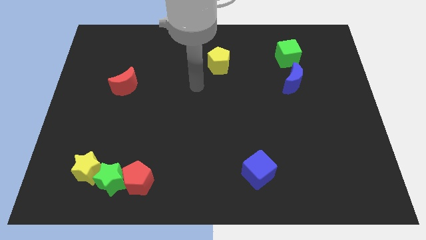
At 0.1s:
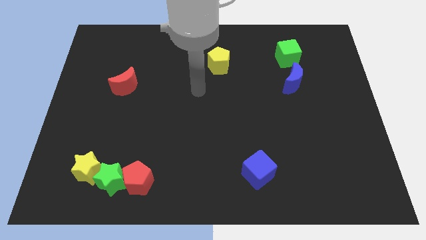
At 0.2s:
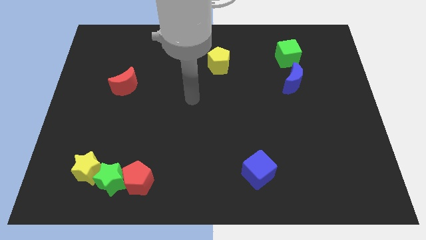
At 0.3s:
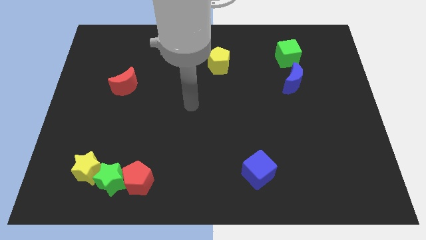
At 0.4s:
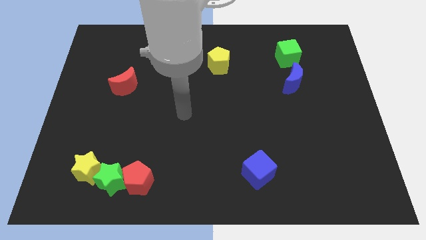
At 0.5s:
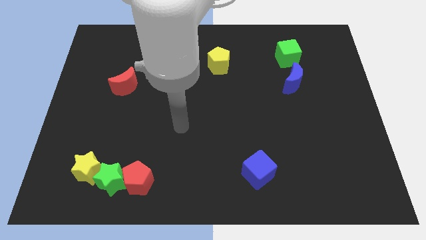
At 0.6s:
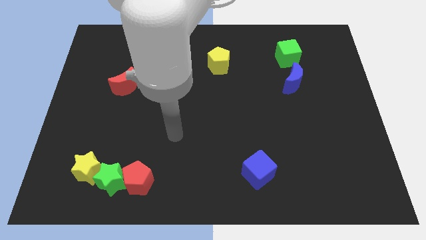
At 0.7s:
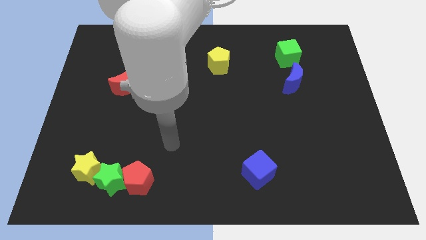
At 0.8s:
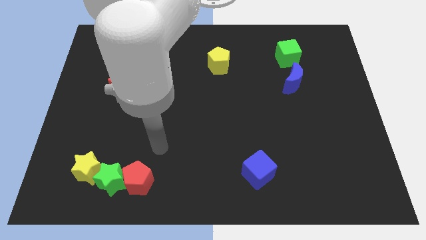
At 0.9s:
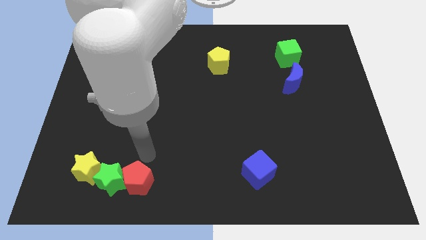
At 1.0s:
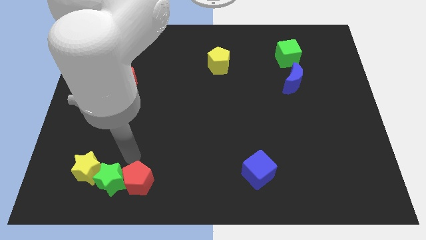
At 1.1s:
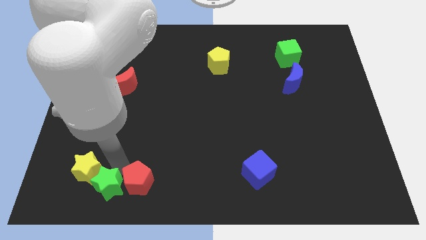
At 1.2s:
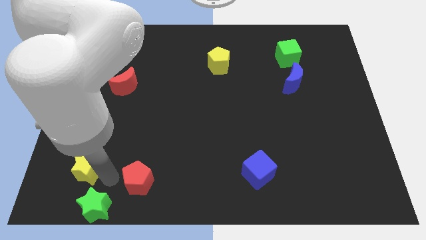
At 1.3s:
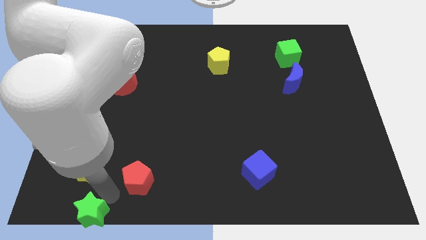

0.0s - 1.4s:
move the red pentagon away from the green star

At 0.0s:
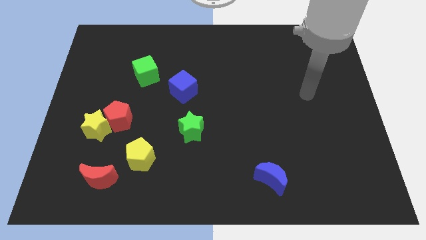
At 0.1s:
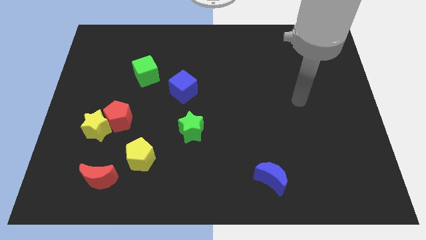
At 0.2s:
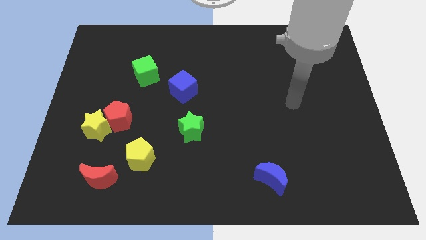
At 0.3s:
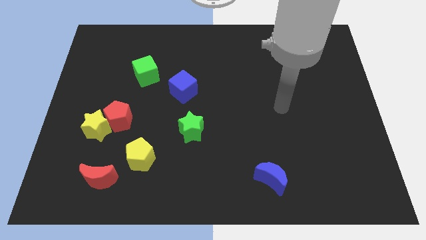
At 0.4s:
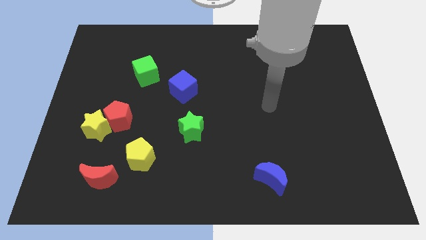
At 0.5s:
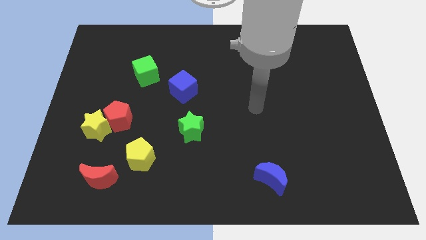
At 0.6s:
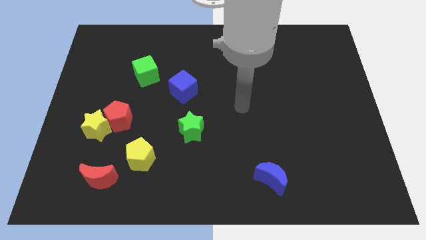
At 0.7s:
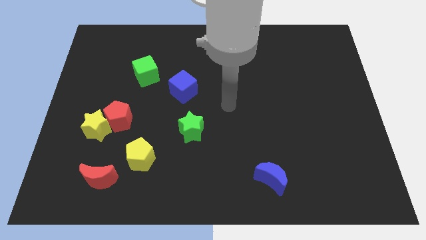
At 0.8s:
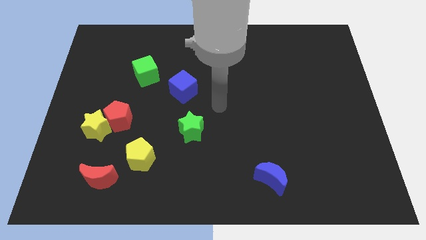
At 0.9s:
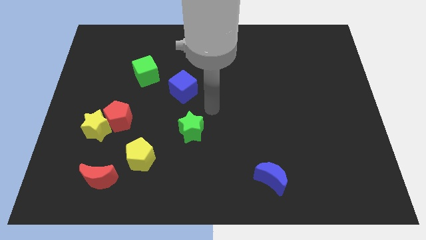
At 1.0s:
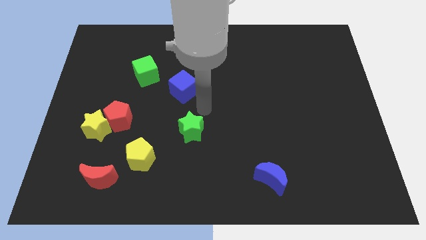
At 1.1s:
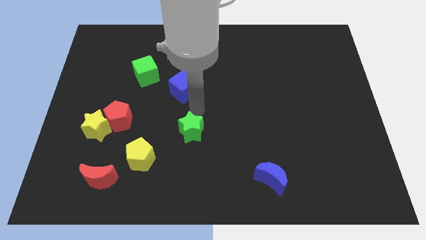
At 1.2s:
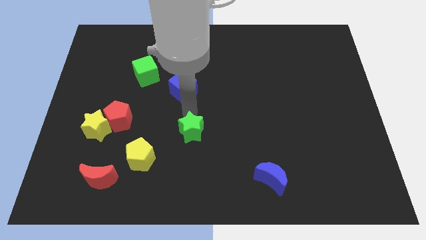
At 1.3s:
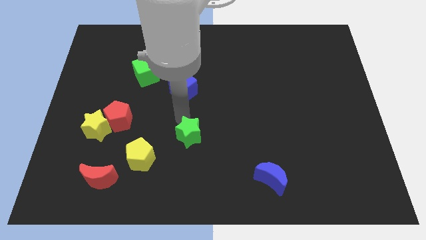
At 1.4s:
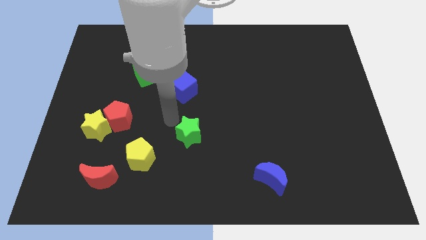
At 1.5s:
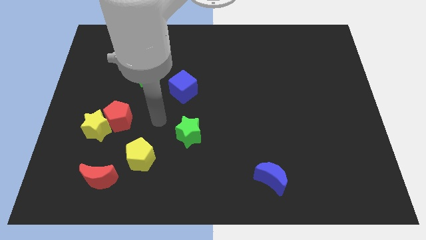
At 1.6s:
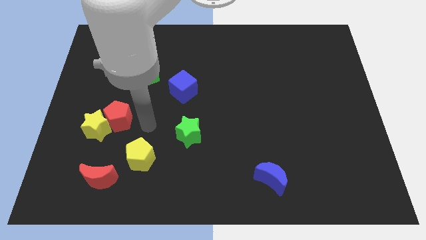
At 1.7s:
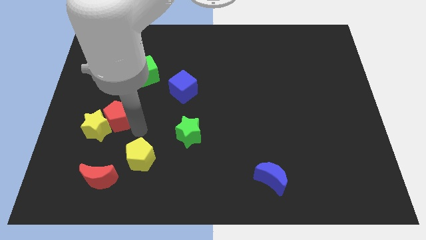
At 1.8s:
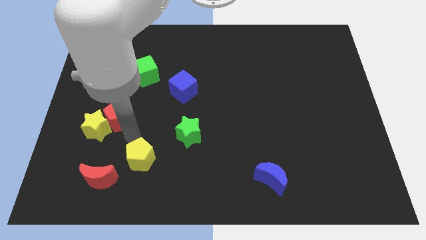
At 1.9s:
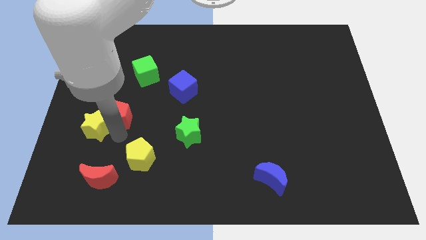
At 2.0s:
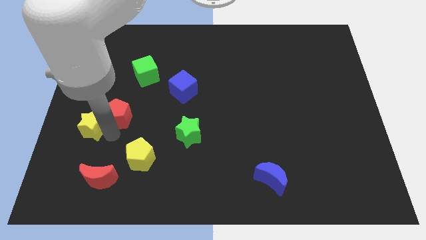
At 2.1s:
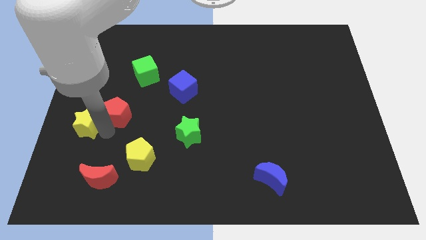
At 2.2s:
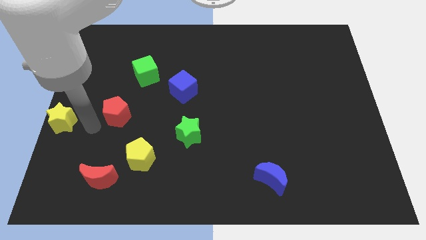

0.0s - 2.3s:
separate the red pentagon from the yellow star

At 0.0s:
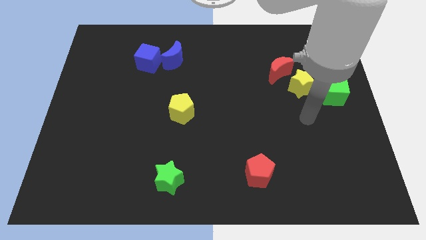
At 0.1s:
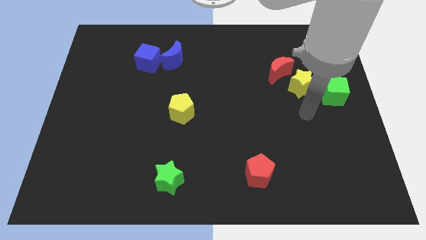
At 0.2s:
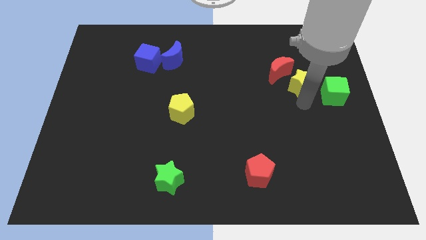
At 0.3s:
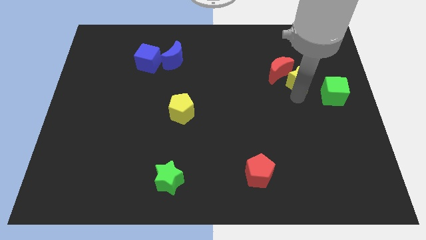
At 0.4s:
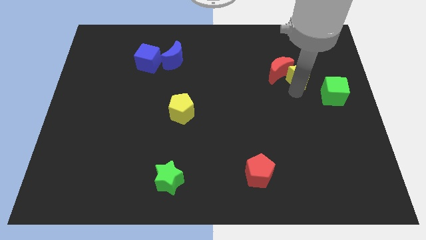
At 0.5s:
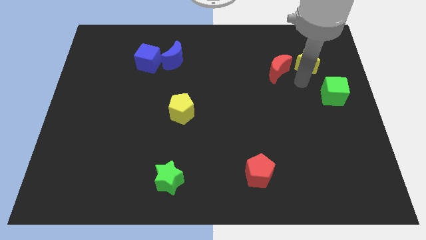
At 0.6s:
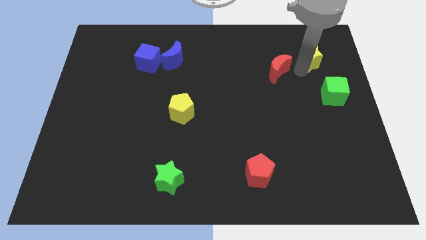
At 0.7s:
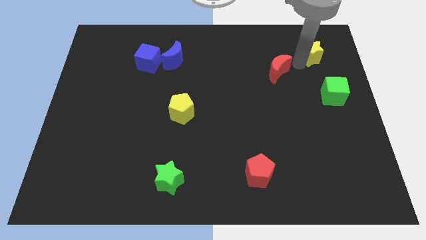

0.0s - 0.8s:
separate the red moon from the yellow star

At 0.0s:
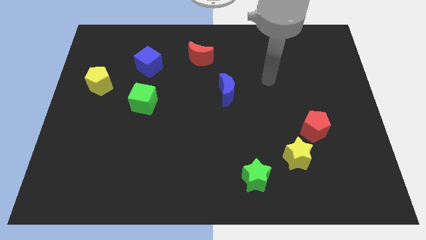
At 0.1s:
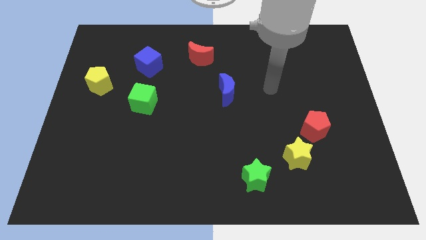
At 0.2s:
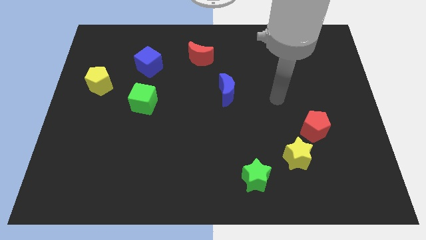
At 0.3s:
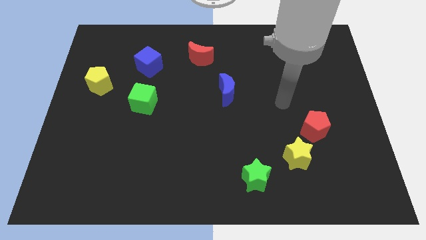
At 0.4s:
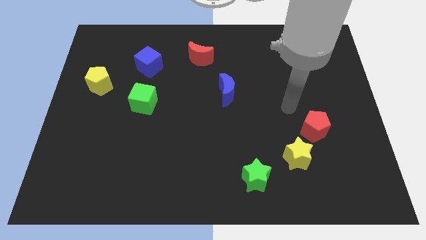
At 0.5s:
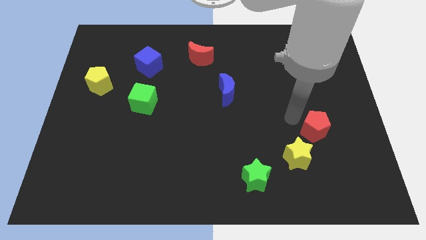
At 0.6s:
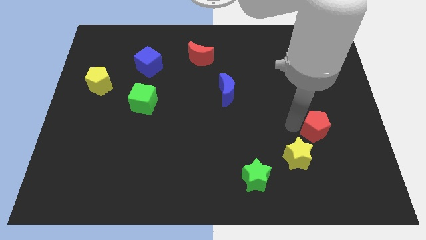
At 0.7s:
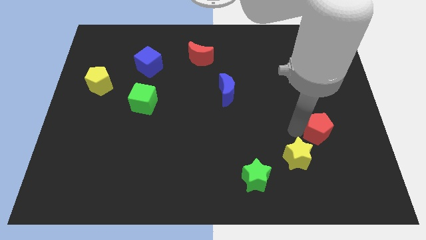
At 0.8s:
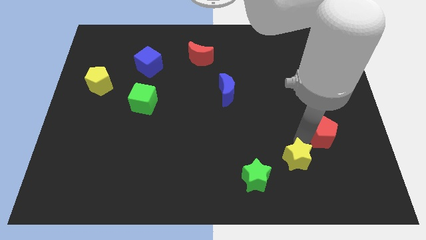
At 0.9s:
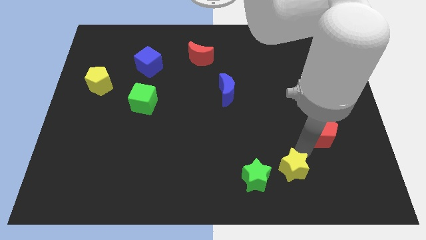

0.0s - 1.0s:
move the red pentagon away from the yellow star

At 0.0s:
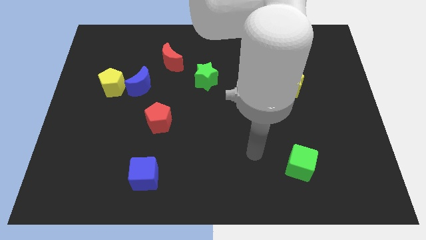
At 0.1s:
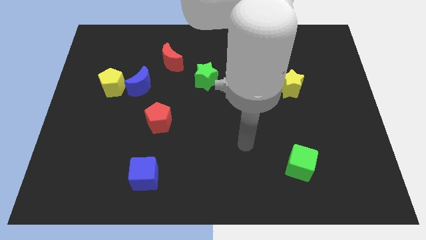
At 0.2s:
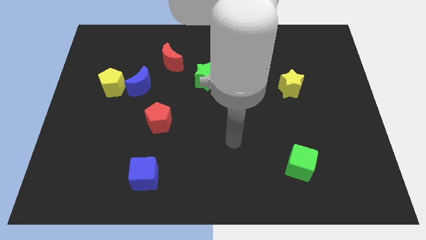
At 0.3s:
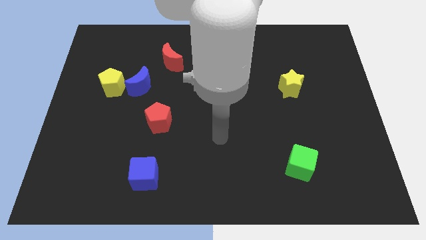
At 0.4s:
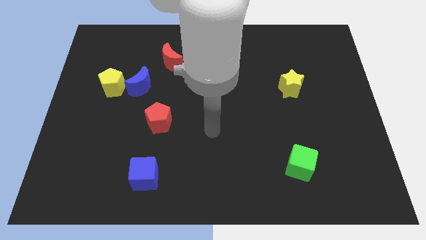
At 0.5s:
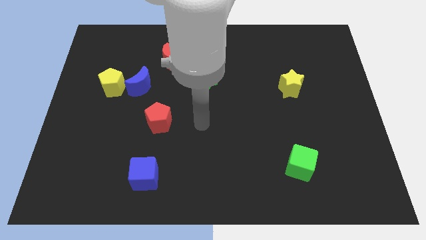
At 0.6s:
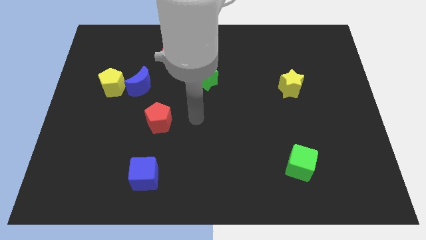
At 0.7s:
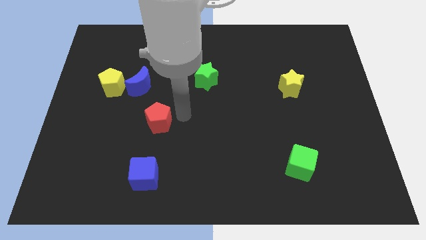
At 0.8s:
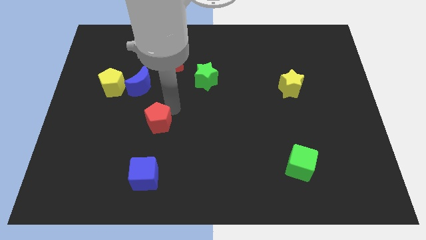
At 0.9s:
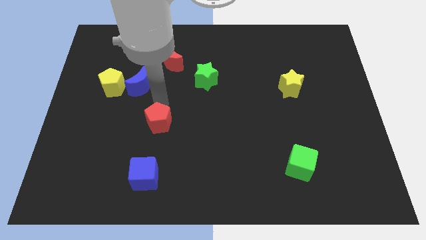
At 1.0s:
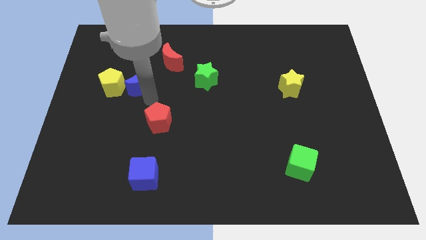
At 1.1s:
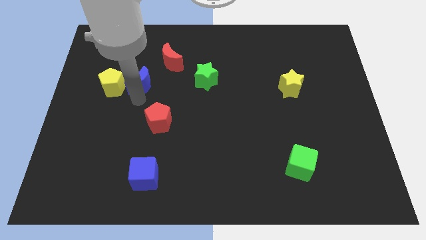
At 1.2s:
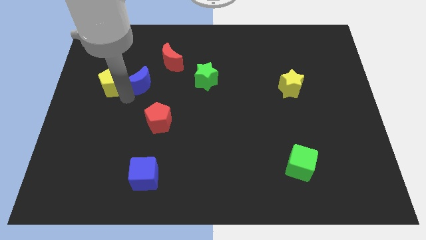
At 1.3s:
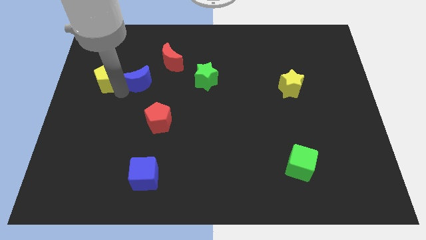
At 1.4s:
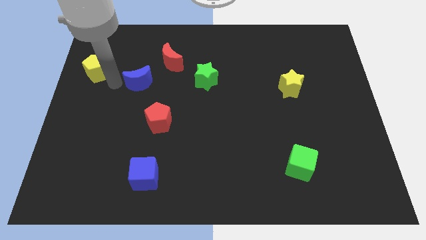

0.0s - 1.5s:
pull the blue moon apart from the yellow pentagon

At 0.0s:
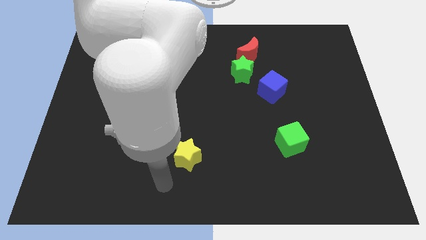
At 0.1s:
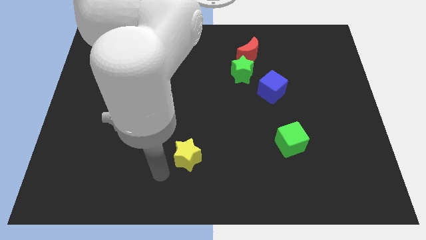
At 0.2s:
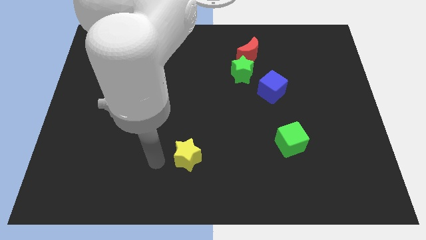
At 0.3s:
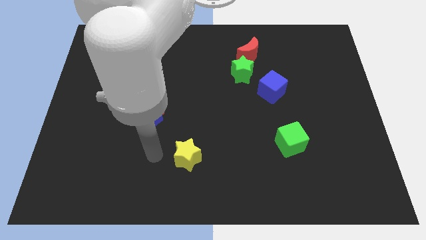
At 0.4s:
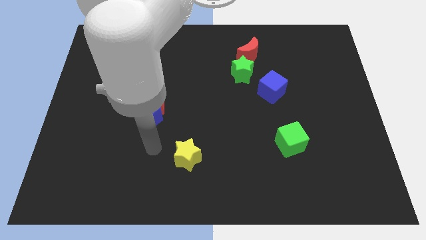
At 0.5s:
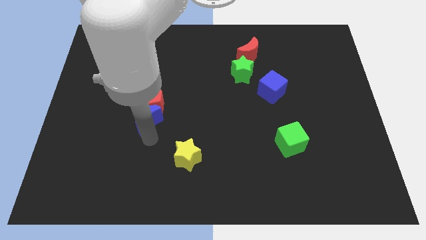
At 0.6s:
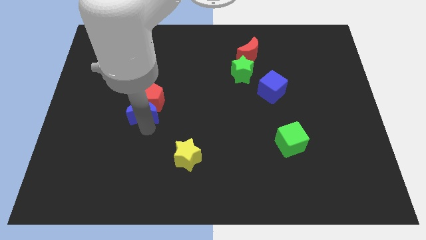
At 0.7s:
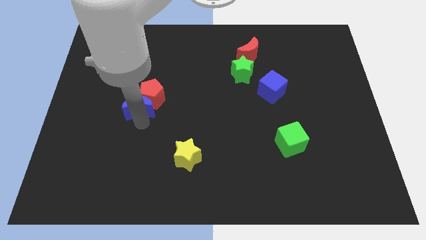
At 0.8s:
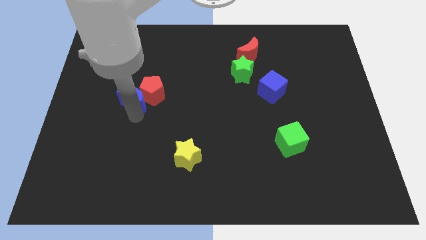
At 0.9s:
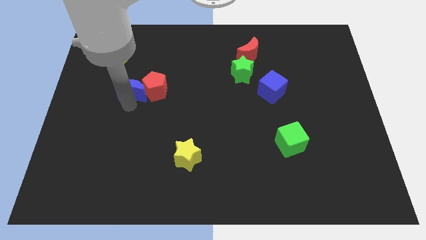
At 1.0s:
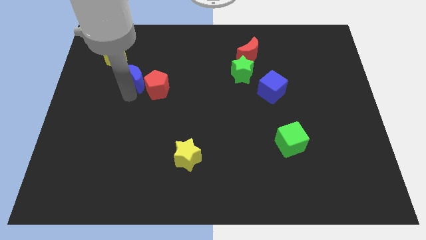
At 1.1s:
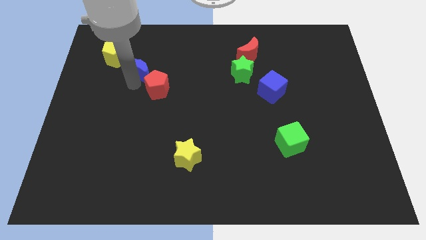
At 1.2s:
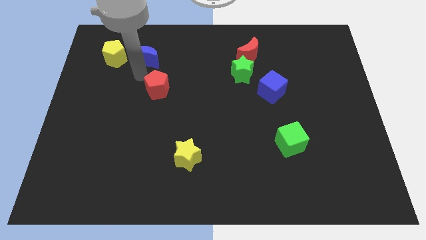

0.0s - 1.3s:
separate the red pentagon from the blue moon

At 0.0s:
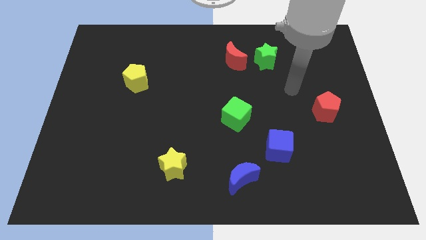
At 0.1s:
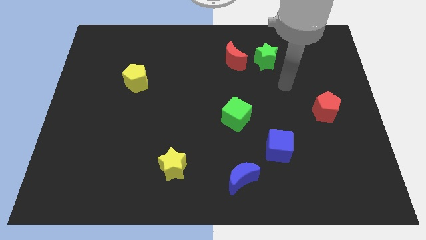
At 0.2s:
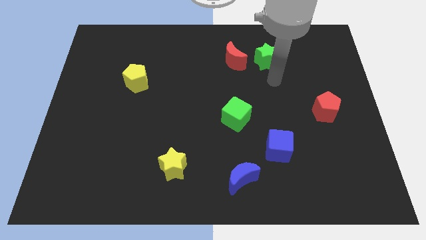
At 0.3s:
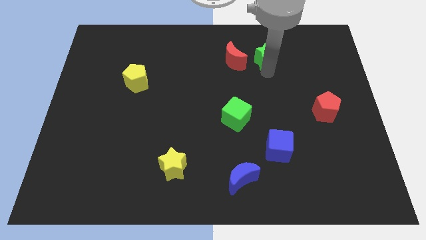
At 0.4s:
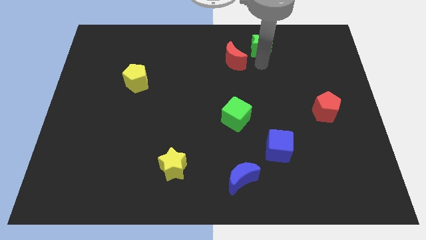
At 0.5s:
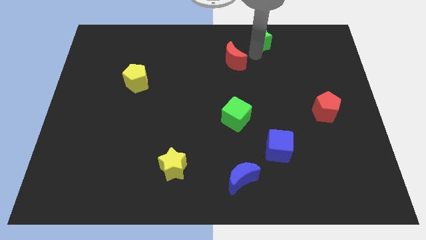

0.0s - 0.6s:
move the red moon away from the green star

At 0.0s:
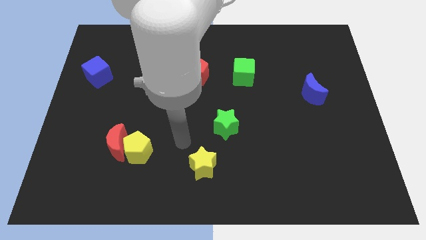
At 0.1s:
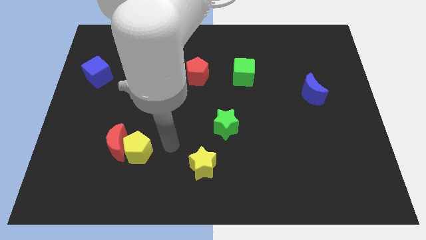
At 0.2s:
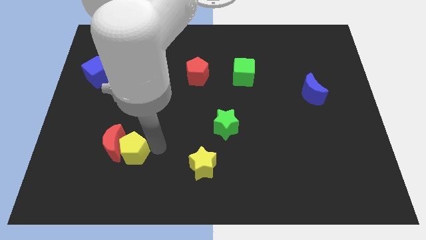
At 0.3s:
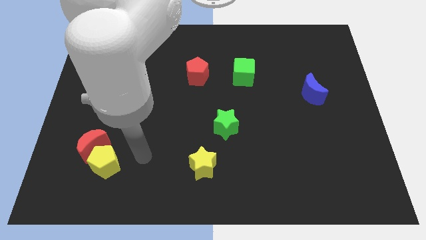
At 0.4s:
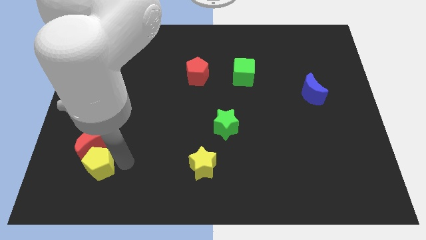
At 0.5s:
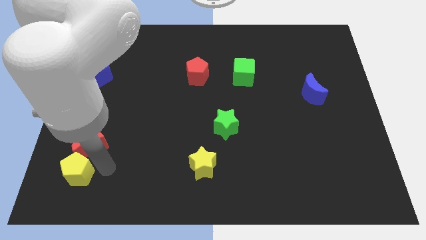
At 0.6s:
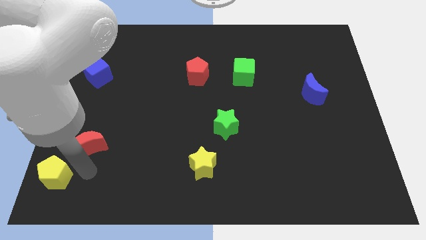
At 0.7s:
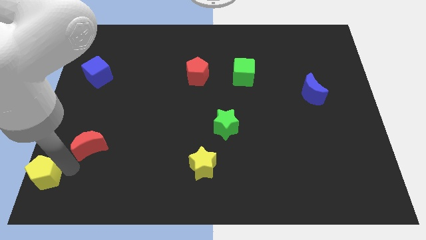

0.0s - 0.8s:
pull the red moon apart from the yellow pentagon
